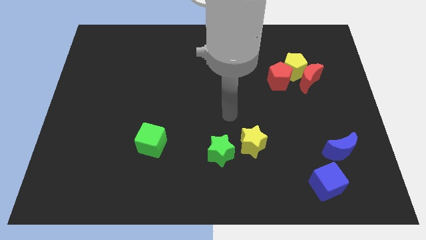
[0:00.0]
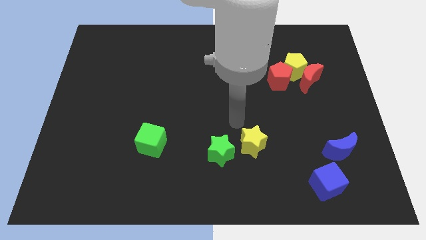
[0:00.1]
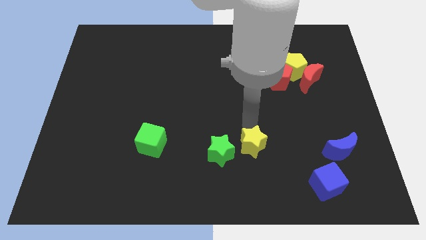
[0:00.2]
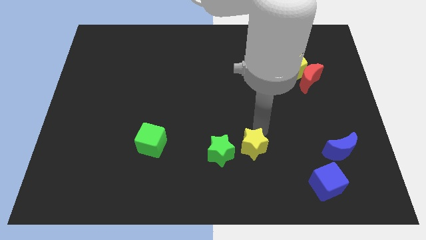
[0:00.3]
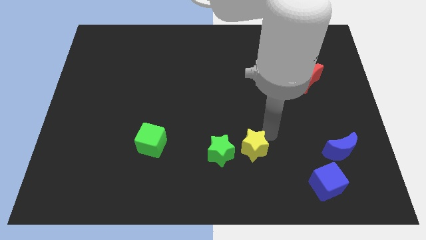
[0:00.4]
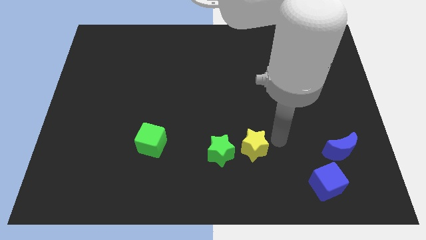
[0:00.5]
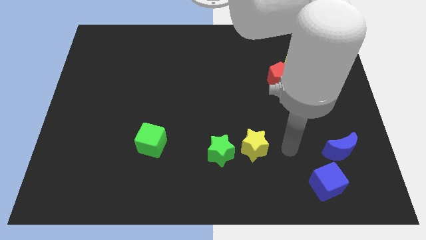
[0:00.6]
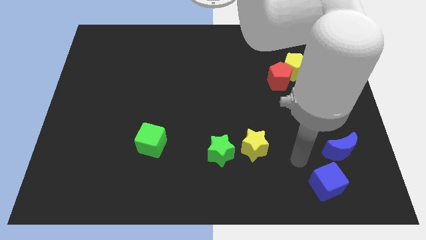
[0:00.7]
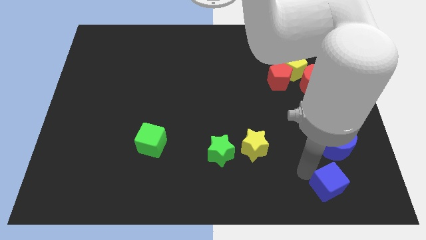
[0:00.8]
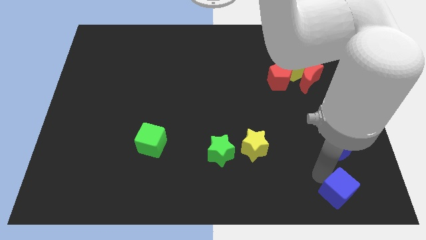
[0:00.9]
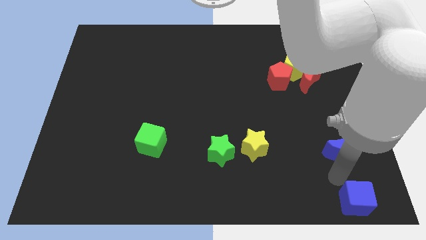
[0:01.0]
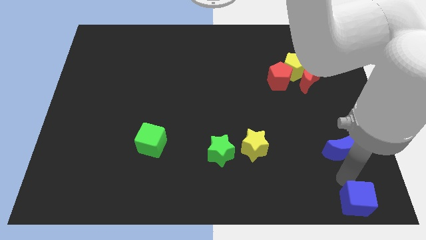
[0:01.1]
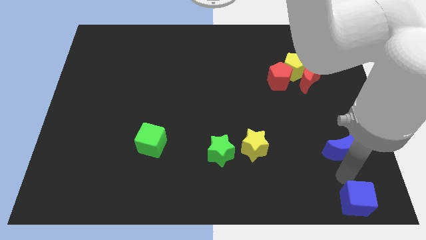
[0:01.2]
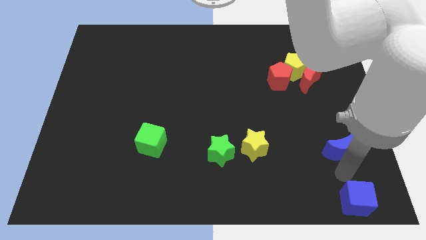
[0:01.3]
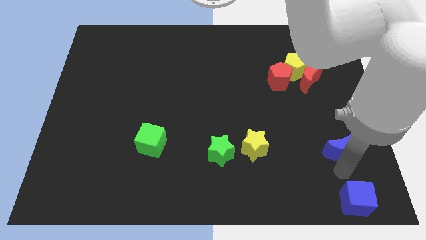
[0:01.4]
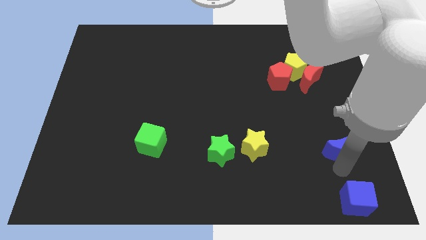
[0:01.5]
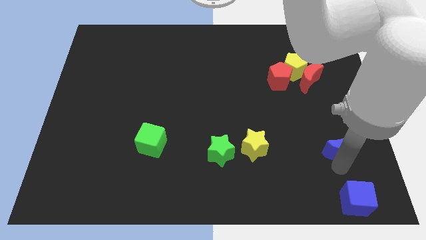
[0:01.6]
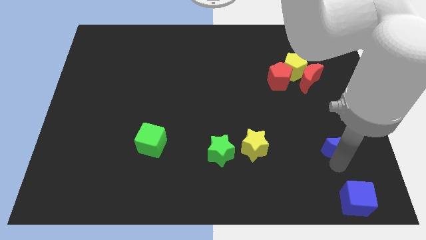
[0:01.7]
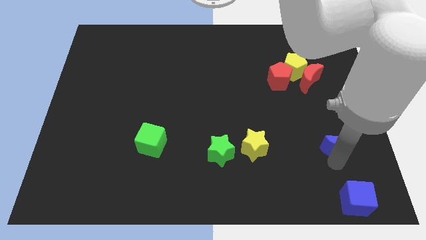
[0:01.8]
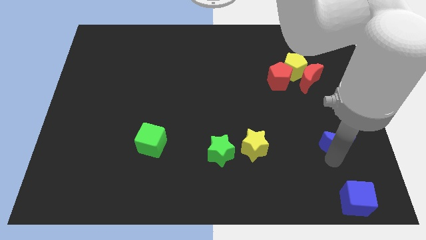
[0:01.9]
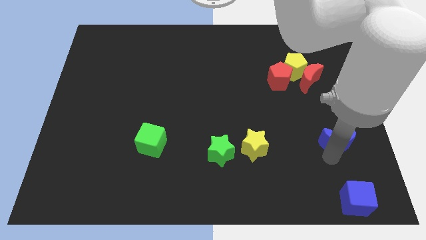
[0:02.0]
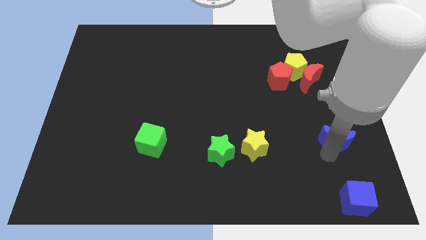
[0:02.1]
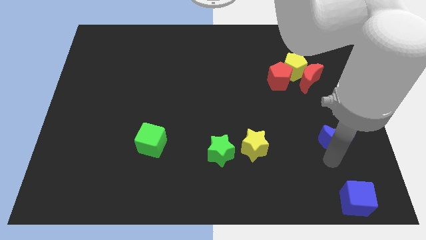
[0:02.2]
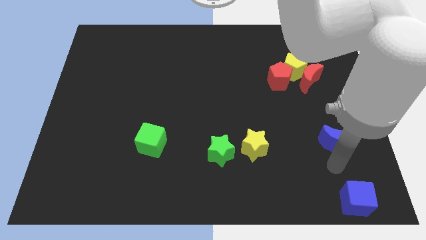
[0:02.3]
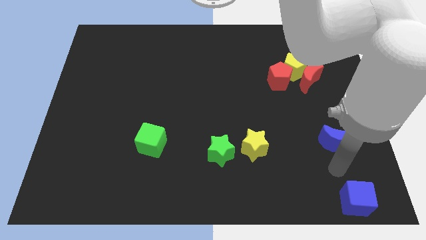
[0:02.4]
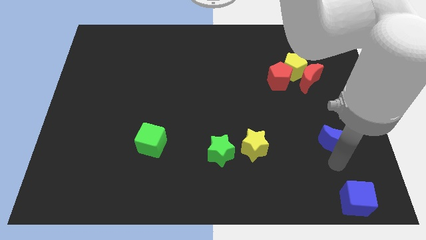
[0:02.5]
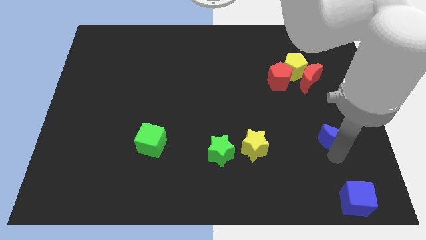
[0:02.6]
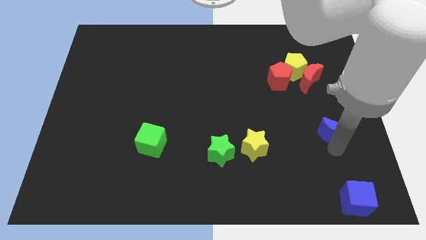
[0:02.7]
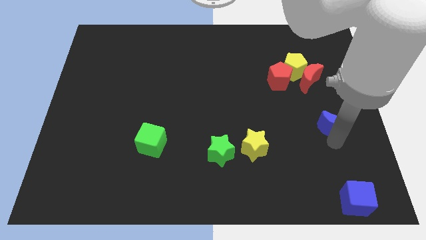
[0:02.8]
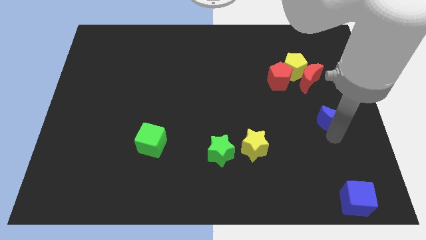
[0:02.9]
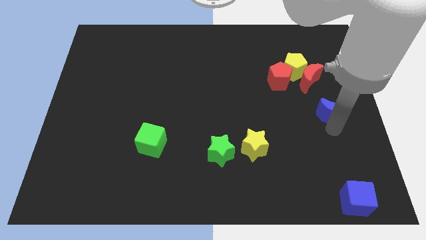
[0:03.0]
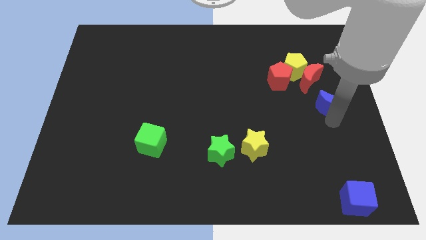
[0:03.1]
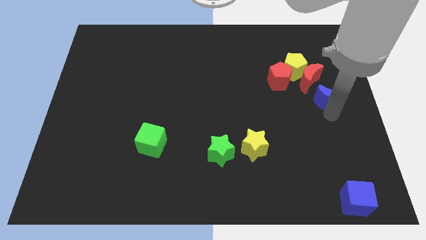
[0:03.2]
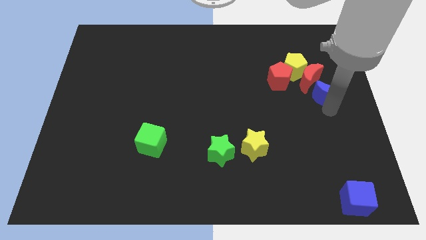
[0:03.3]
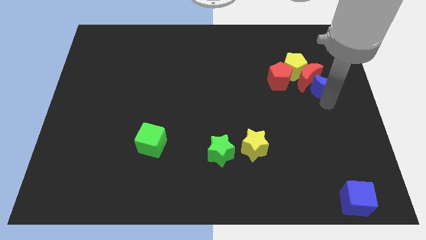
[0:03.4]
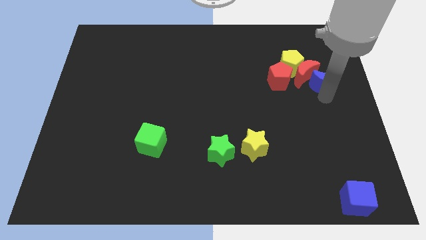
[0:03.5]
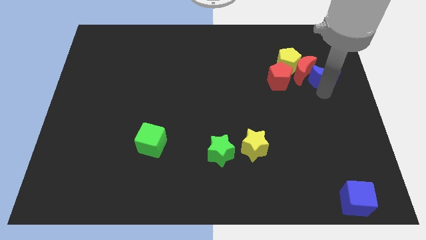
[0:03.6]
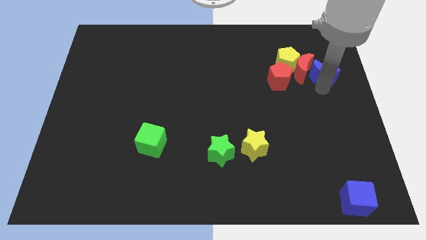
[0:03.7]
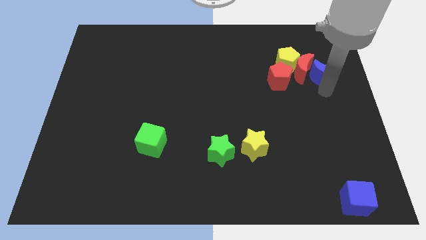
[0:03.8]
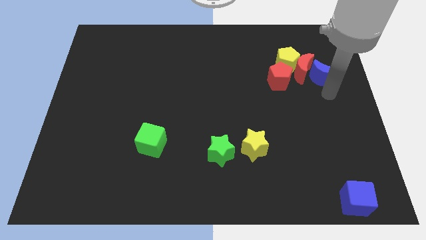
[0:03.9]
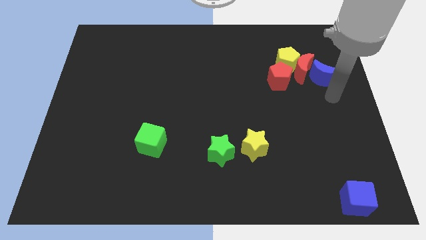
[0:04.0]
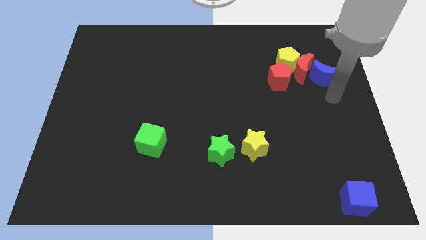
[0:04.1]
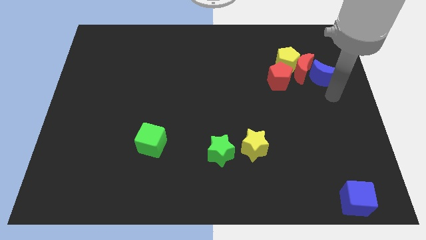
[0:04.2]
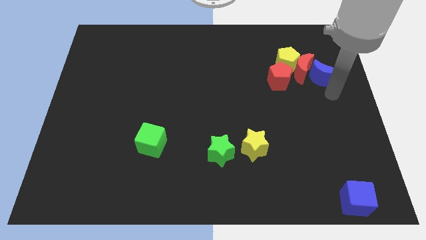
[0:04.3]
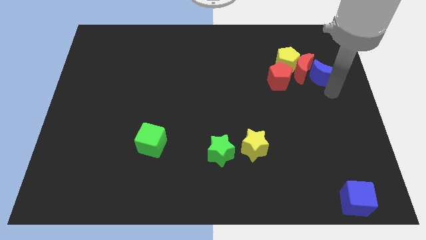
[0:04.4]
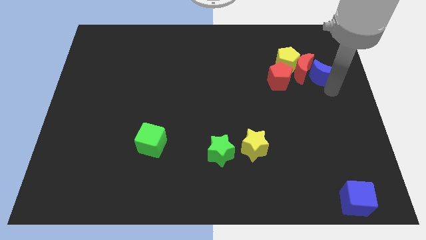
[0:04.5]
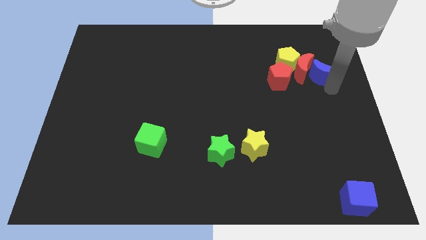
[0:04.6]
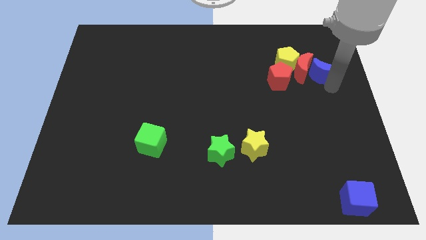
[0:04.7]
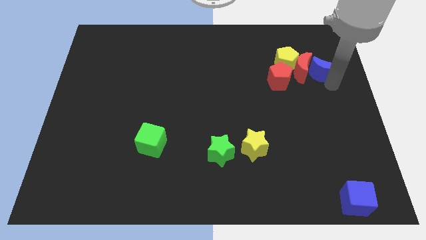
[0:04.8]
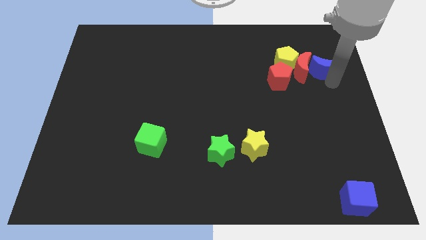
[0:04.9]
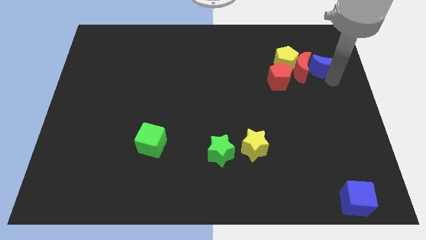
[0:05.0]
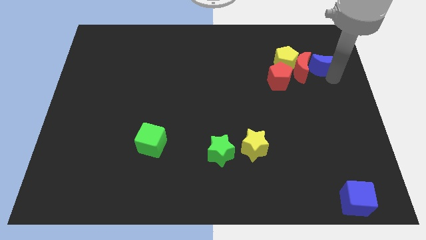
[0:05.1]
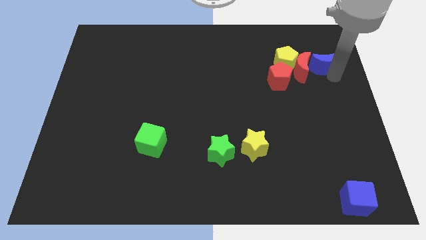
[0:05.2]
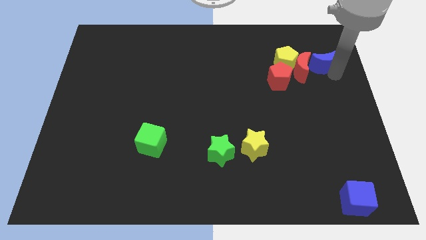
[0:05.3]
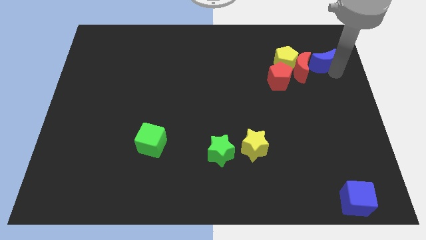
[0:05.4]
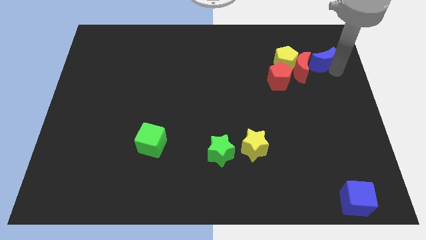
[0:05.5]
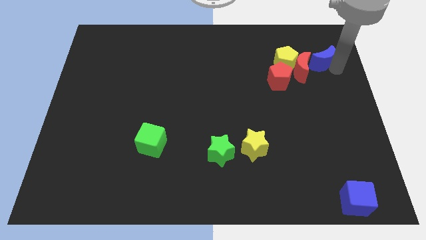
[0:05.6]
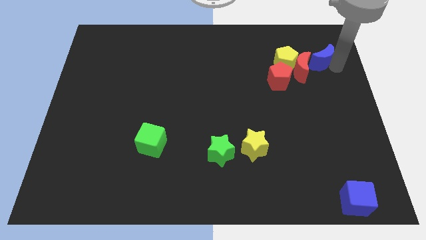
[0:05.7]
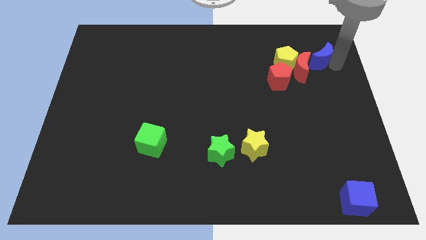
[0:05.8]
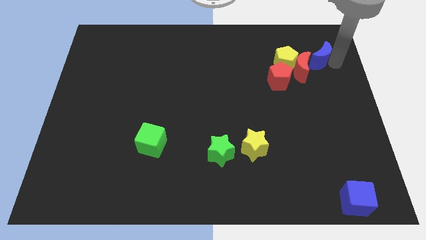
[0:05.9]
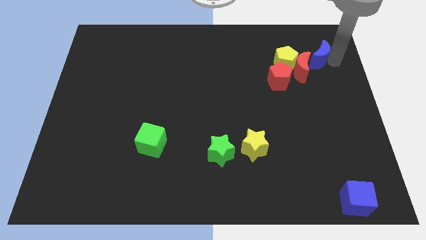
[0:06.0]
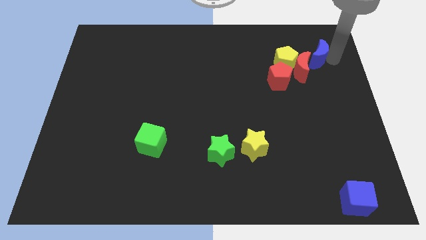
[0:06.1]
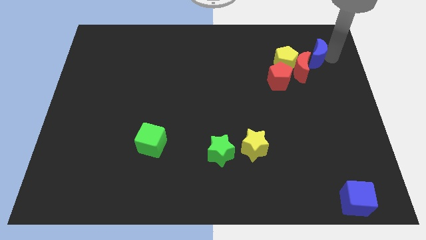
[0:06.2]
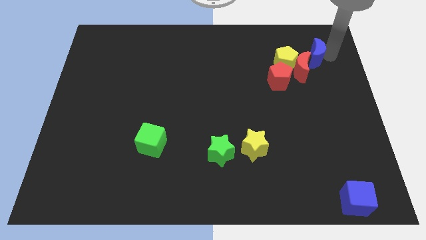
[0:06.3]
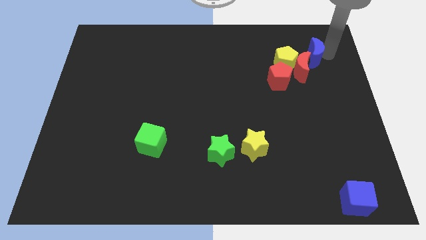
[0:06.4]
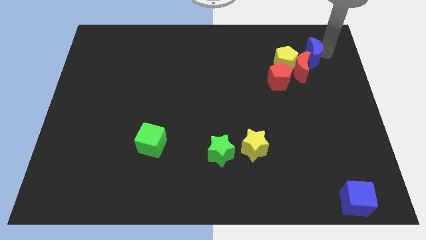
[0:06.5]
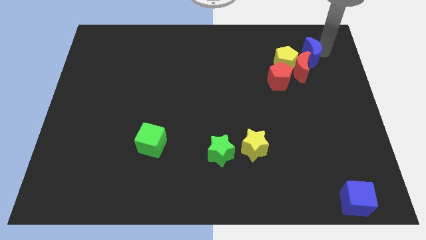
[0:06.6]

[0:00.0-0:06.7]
push the blue moon to the top right of the red pentagon

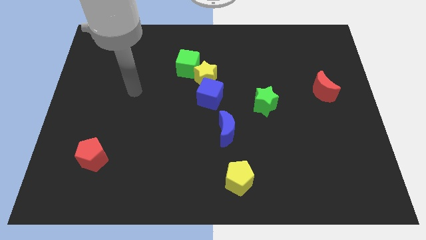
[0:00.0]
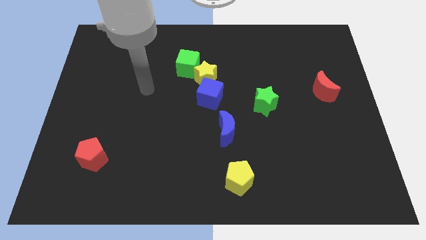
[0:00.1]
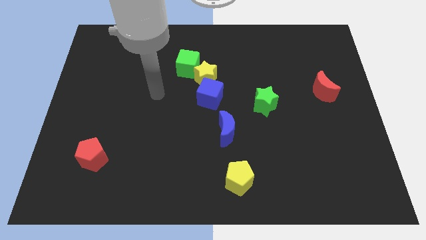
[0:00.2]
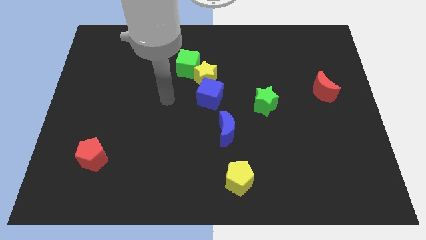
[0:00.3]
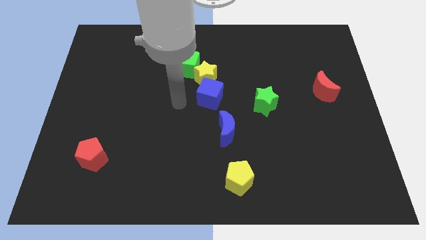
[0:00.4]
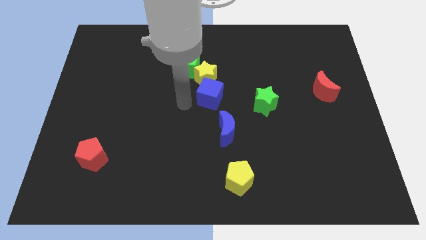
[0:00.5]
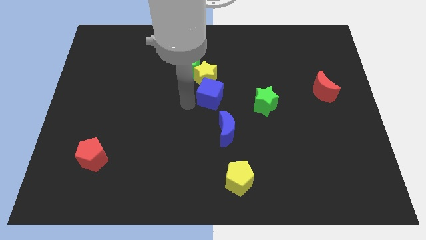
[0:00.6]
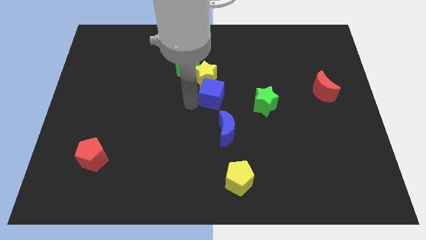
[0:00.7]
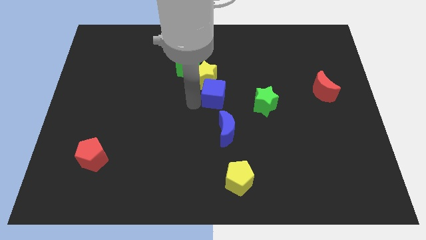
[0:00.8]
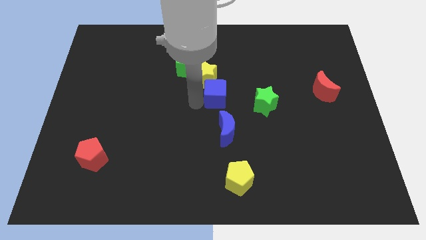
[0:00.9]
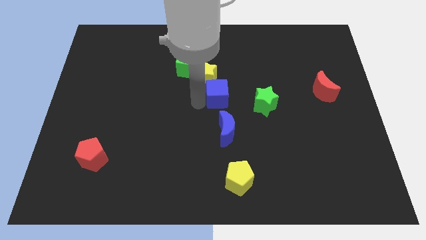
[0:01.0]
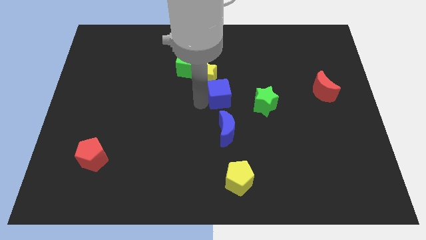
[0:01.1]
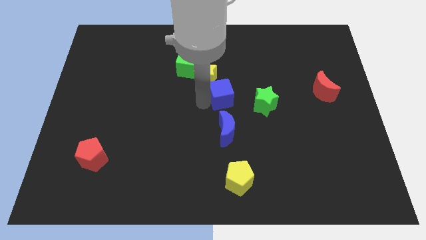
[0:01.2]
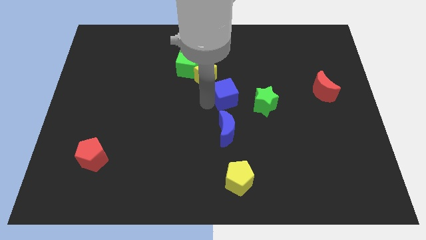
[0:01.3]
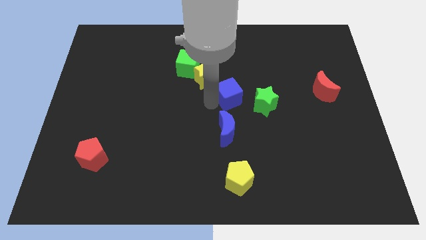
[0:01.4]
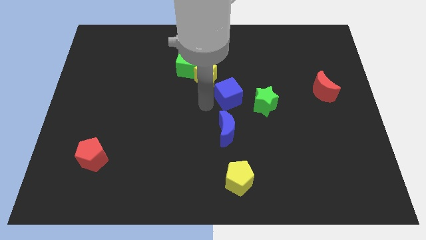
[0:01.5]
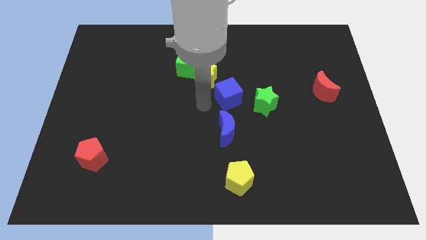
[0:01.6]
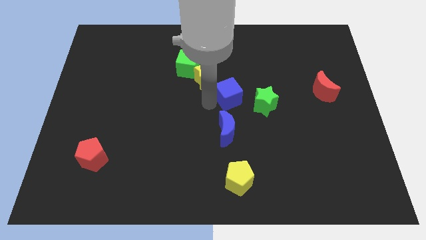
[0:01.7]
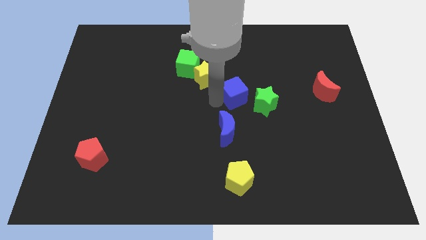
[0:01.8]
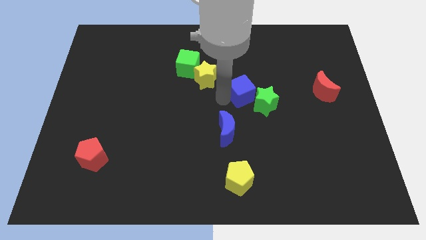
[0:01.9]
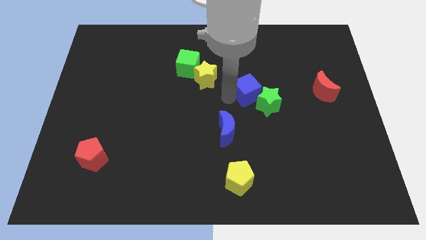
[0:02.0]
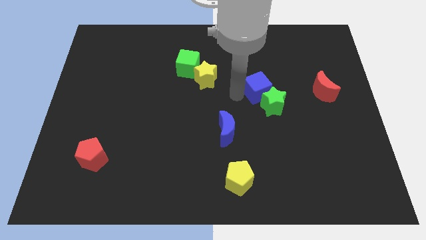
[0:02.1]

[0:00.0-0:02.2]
slide the blue cube to the left of the red moon
